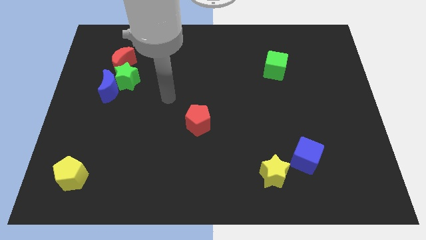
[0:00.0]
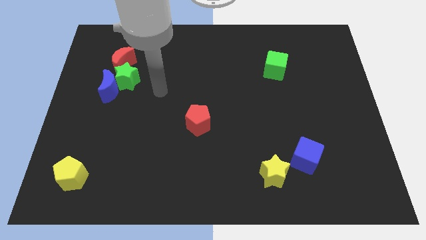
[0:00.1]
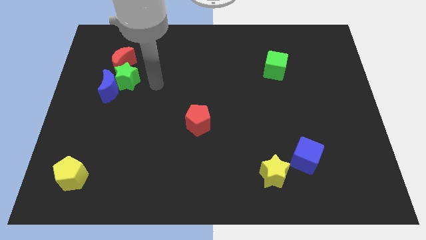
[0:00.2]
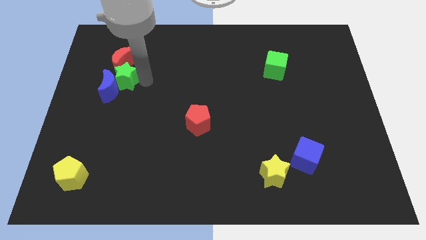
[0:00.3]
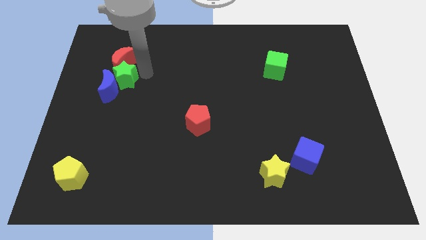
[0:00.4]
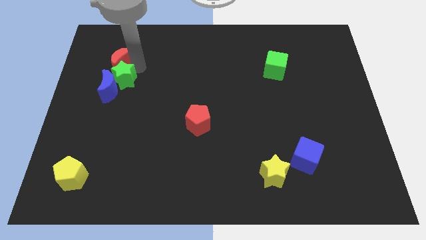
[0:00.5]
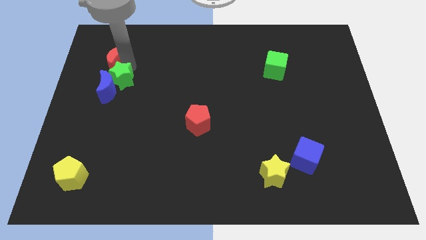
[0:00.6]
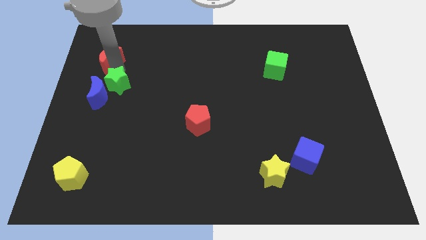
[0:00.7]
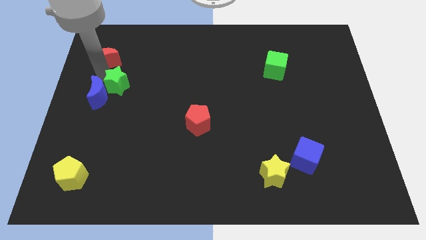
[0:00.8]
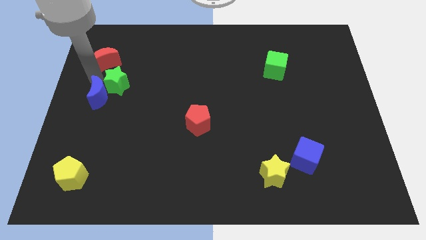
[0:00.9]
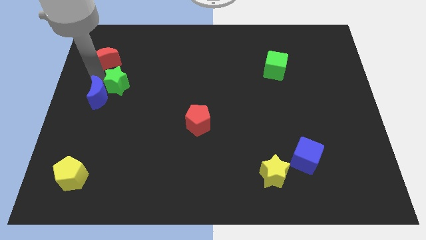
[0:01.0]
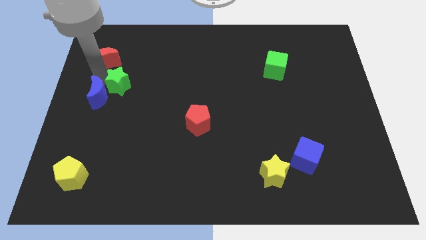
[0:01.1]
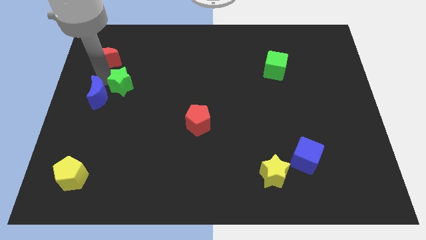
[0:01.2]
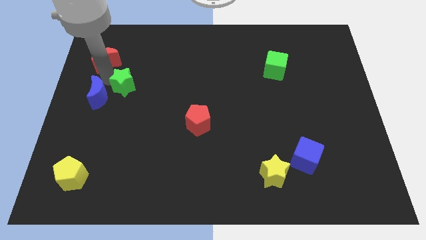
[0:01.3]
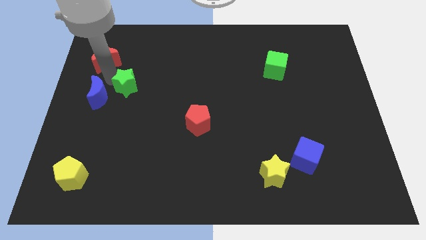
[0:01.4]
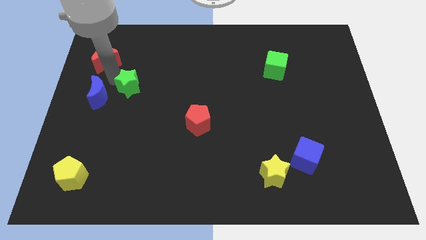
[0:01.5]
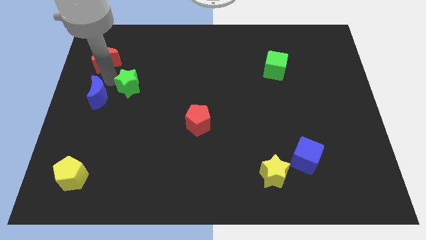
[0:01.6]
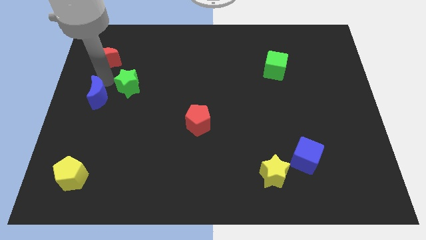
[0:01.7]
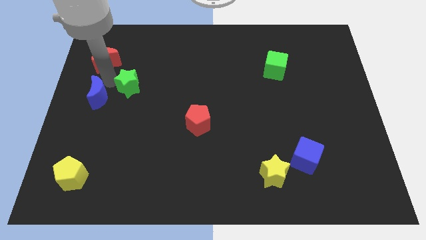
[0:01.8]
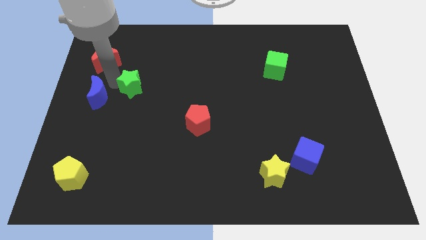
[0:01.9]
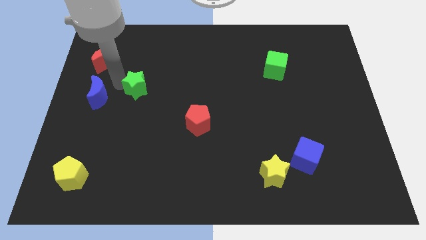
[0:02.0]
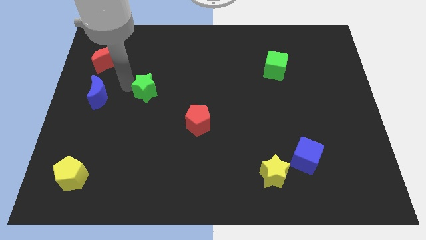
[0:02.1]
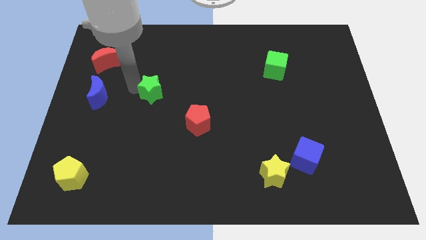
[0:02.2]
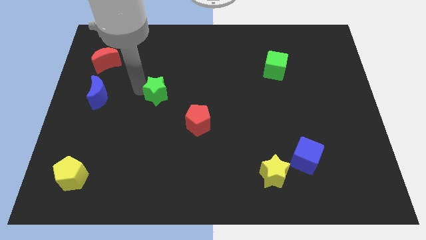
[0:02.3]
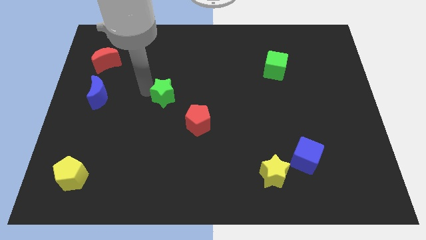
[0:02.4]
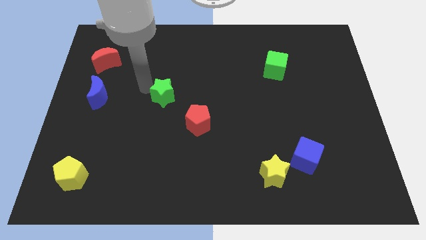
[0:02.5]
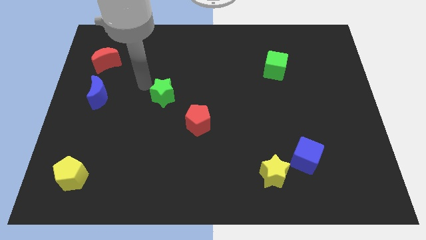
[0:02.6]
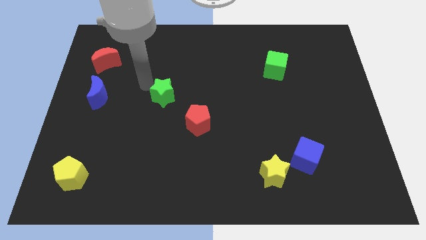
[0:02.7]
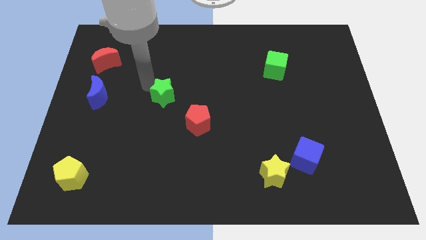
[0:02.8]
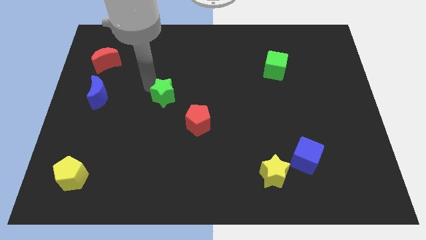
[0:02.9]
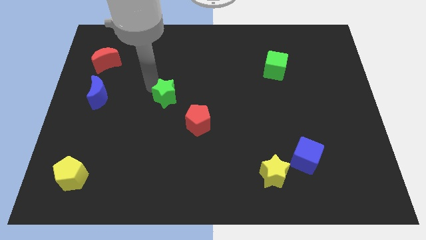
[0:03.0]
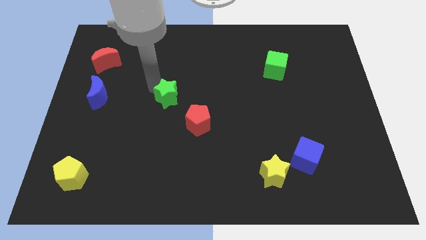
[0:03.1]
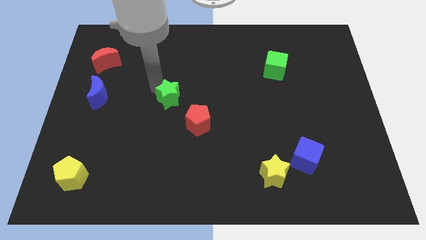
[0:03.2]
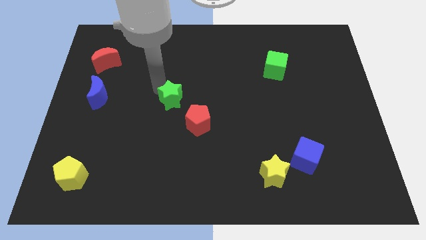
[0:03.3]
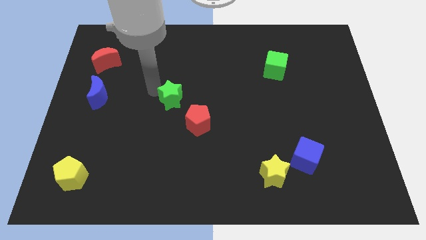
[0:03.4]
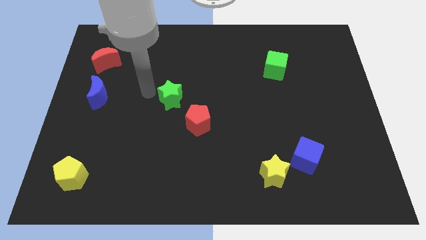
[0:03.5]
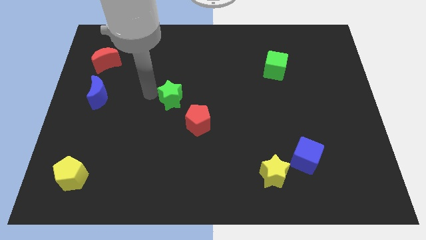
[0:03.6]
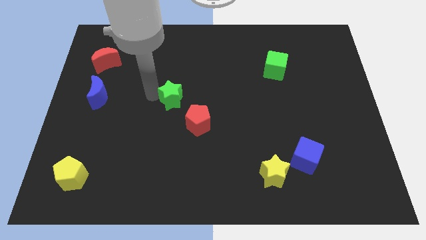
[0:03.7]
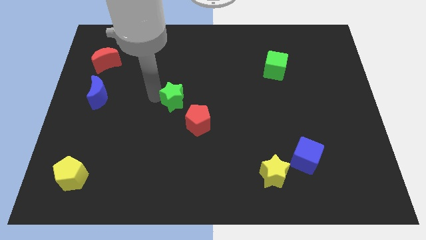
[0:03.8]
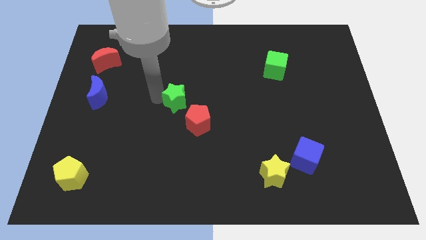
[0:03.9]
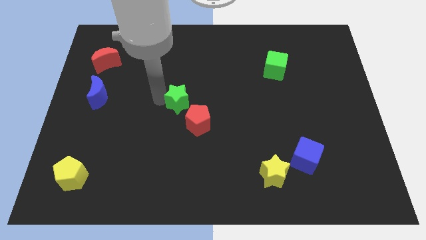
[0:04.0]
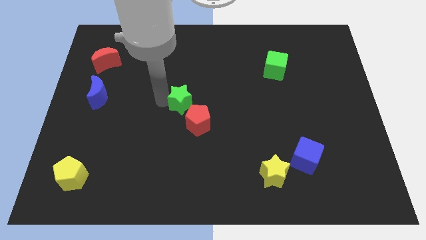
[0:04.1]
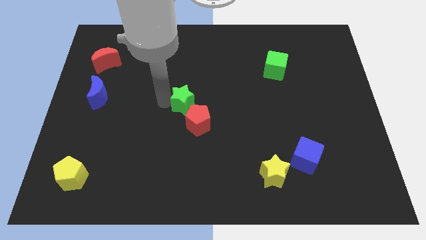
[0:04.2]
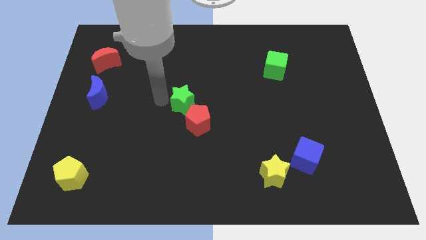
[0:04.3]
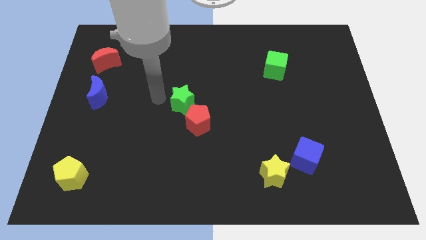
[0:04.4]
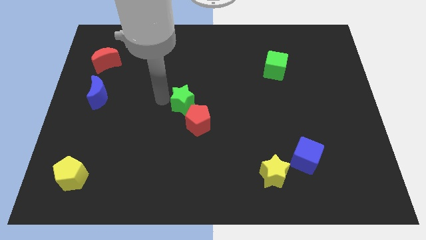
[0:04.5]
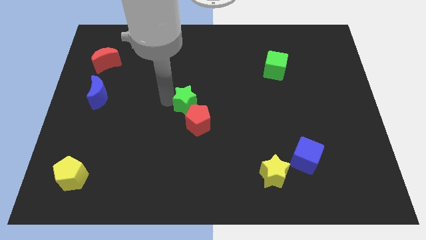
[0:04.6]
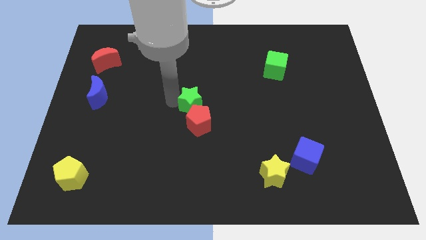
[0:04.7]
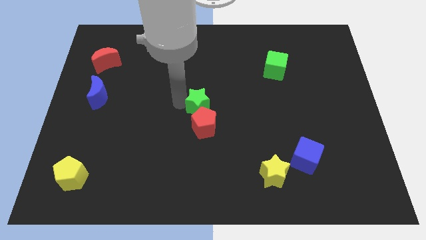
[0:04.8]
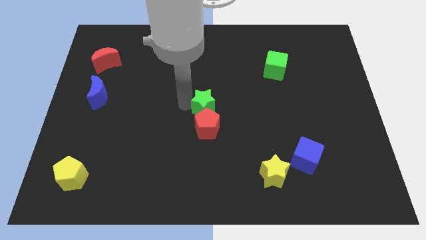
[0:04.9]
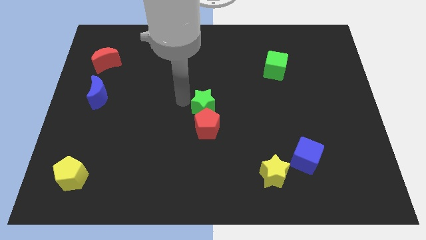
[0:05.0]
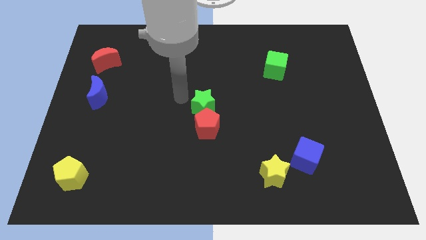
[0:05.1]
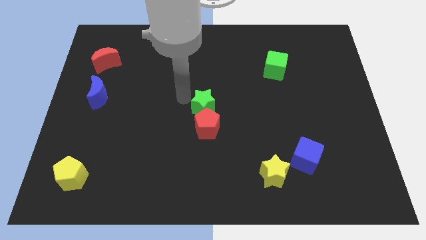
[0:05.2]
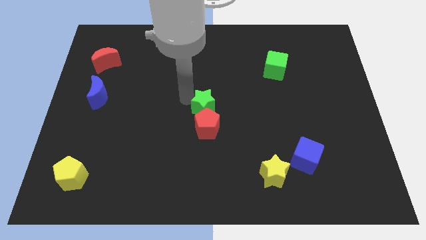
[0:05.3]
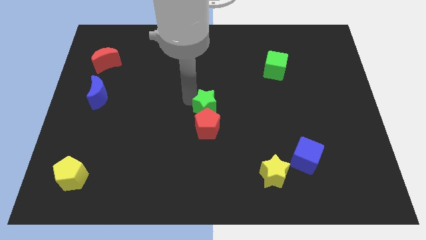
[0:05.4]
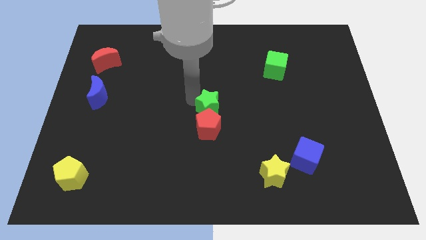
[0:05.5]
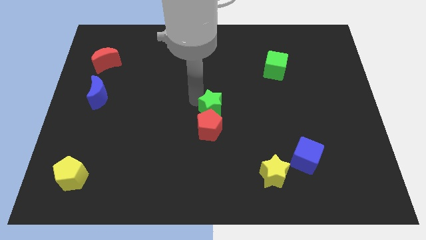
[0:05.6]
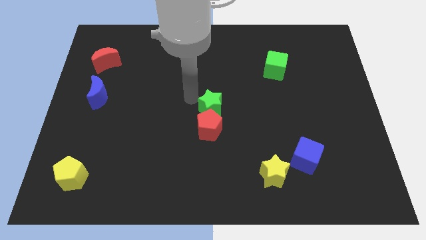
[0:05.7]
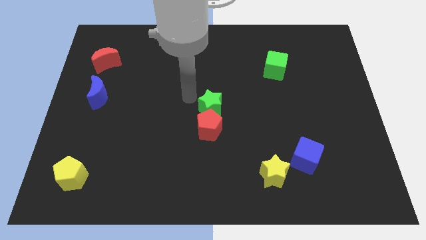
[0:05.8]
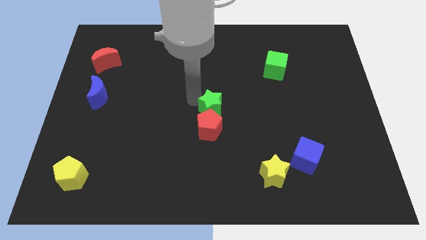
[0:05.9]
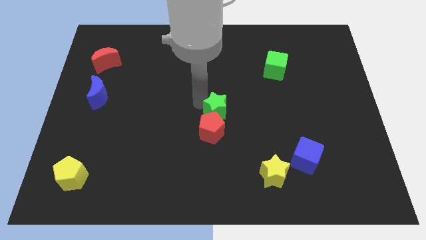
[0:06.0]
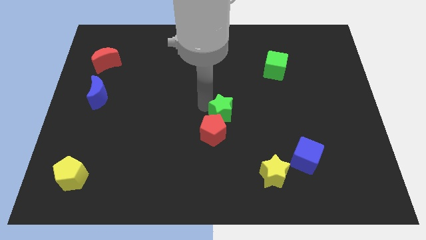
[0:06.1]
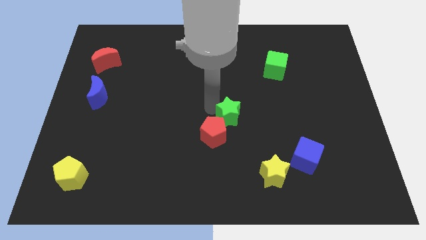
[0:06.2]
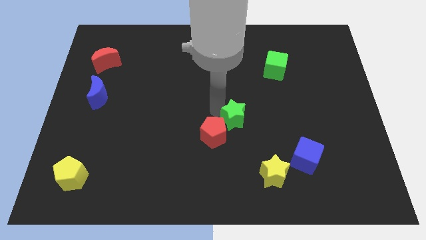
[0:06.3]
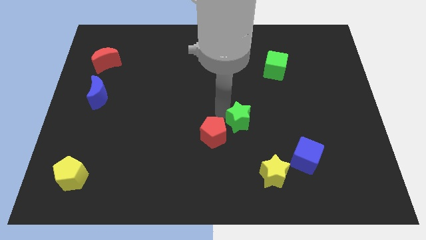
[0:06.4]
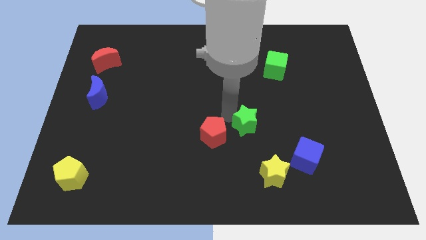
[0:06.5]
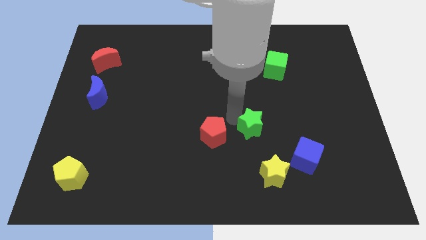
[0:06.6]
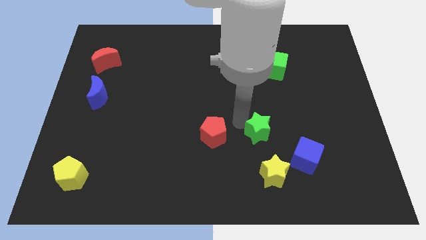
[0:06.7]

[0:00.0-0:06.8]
slide the green star to the top left of the blue cube
